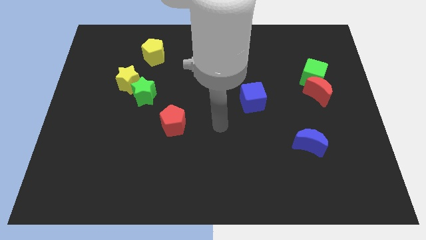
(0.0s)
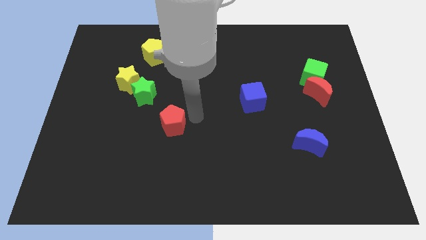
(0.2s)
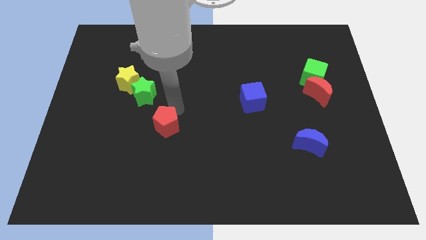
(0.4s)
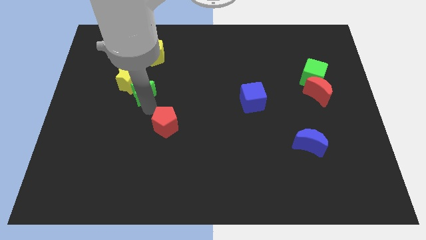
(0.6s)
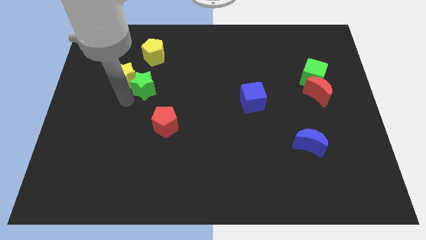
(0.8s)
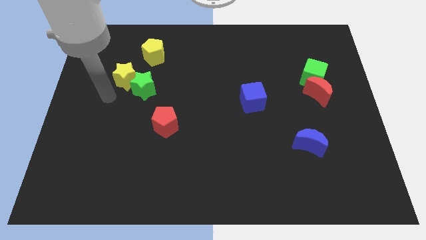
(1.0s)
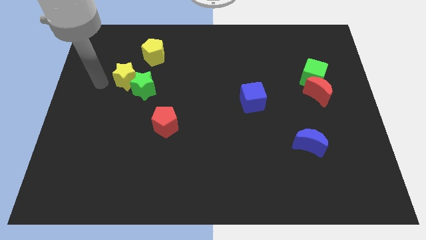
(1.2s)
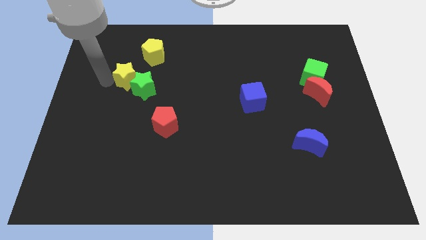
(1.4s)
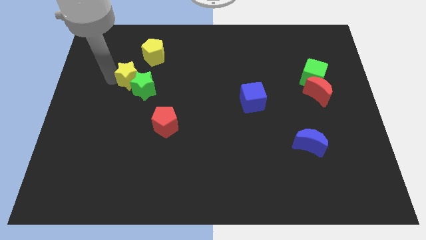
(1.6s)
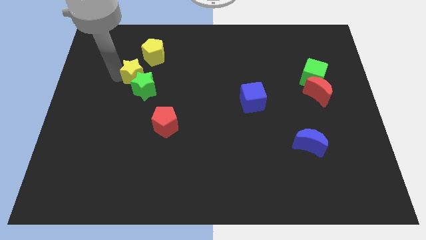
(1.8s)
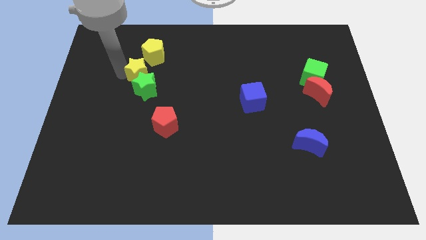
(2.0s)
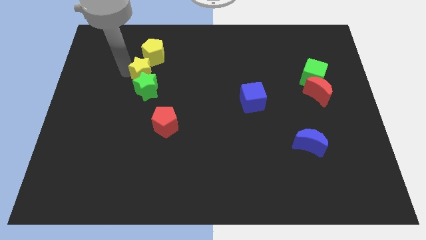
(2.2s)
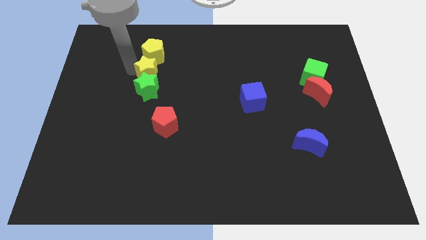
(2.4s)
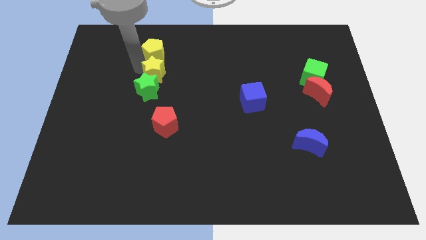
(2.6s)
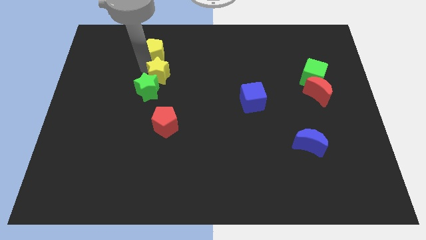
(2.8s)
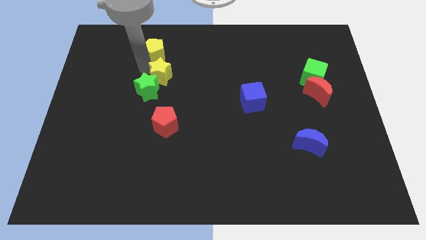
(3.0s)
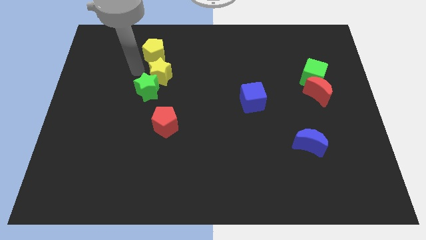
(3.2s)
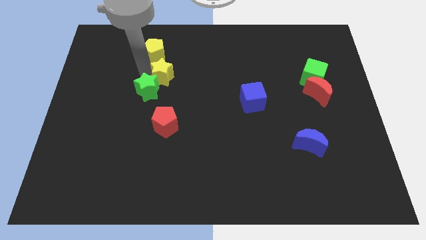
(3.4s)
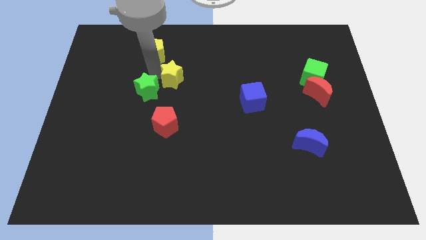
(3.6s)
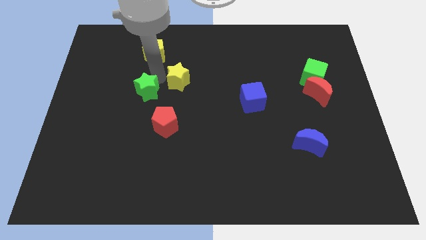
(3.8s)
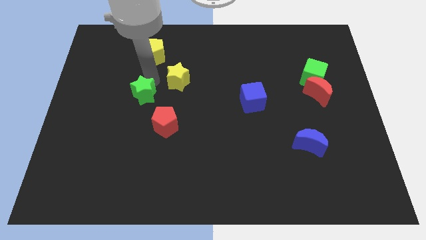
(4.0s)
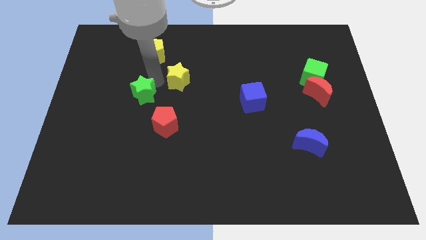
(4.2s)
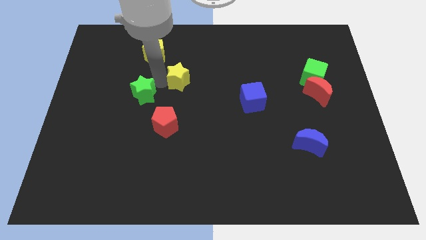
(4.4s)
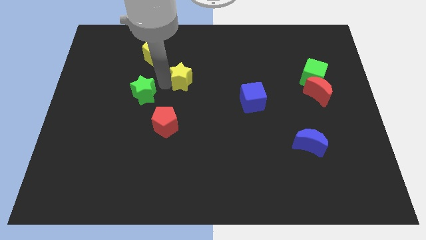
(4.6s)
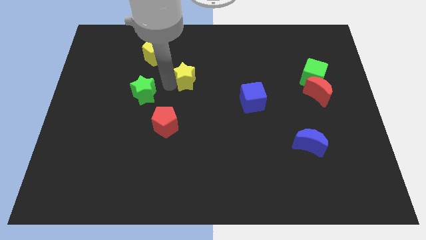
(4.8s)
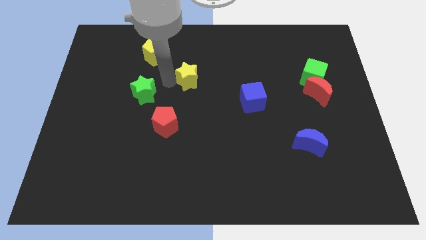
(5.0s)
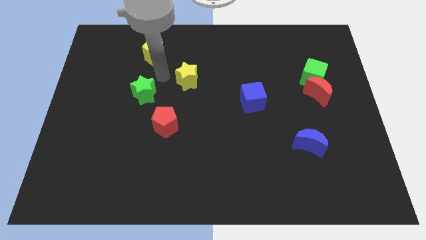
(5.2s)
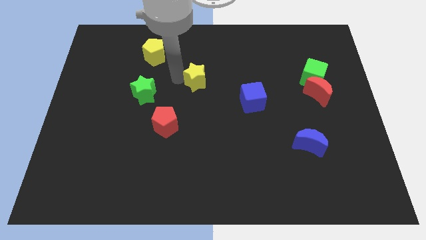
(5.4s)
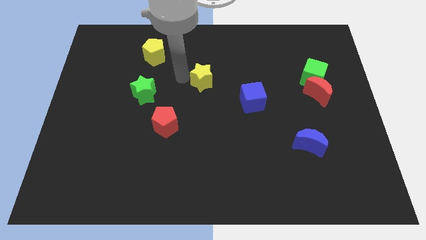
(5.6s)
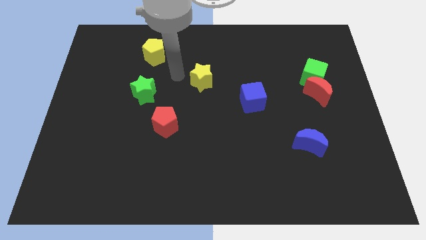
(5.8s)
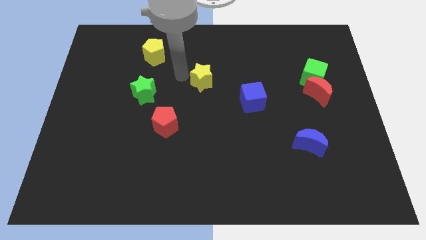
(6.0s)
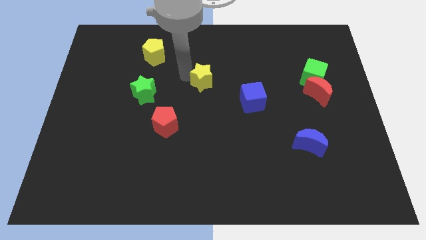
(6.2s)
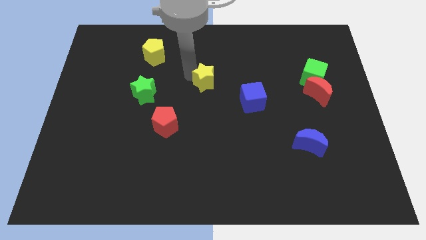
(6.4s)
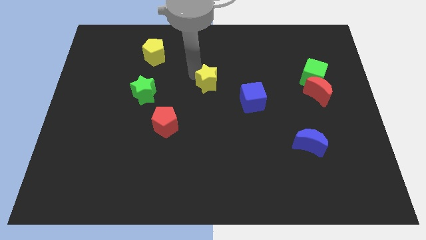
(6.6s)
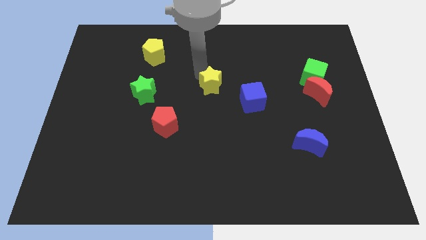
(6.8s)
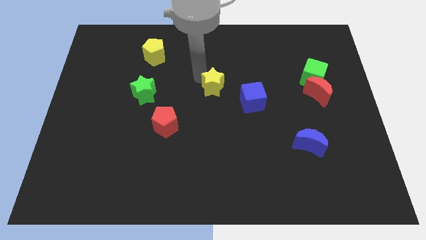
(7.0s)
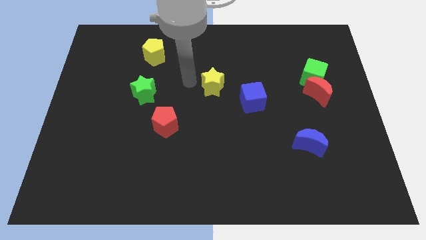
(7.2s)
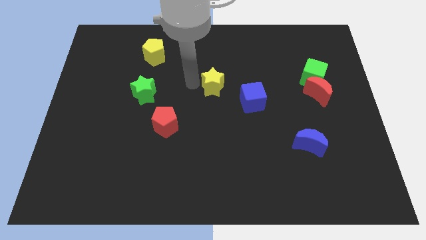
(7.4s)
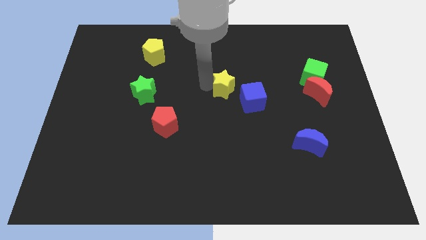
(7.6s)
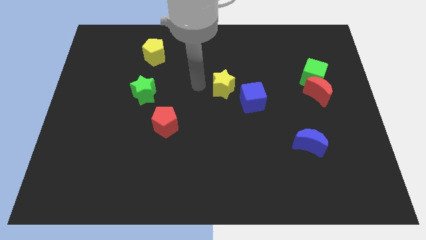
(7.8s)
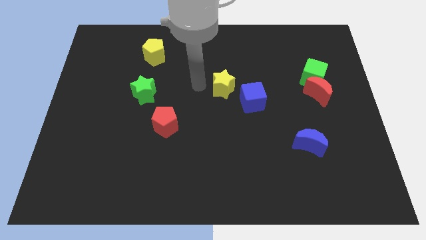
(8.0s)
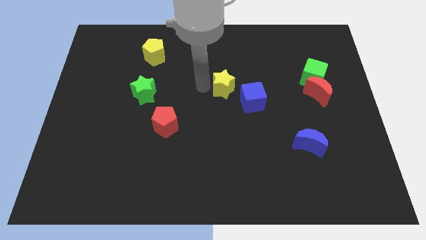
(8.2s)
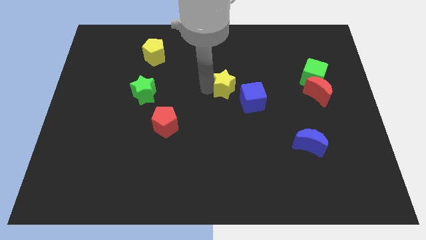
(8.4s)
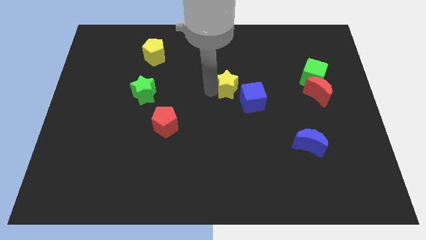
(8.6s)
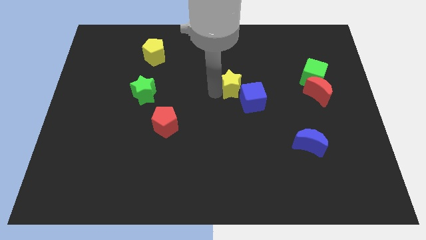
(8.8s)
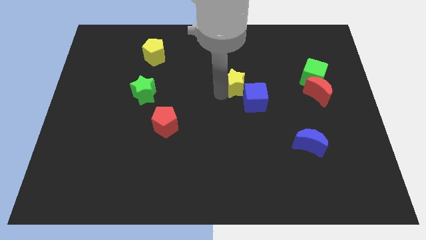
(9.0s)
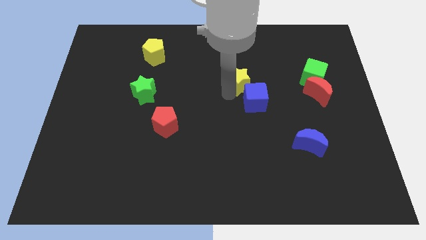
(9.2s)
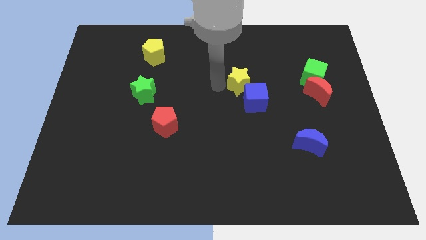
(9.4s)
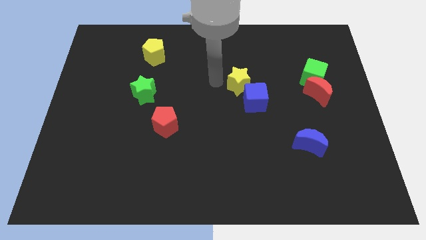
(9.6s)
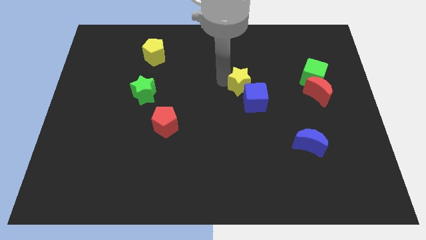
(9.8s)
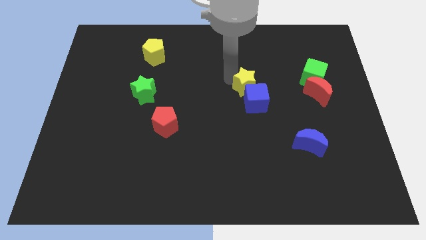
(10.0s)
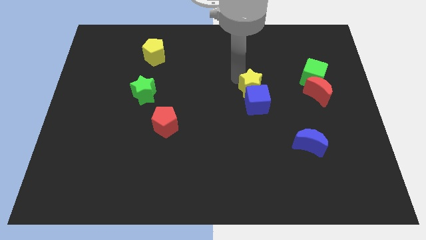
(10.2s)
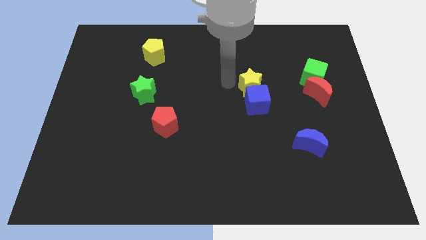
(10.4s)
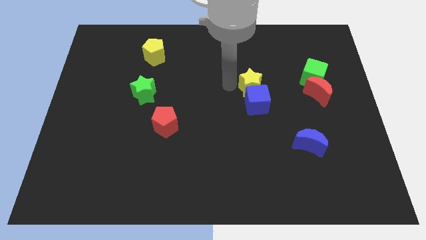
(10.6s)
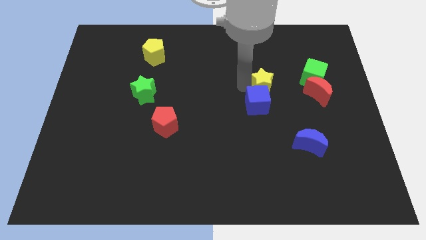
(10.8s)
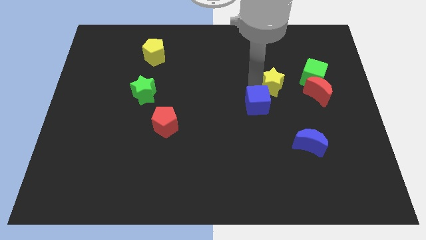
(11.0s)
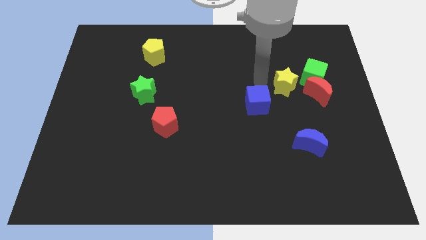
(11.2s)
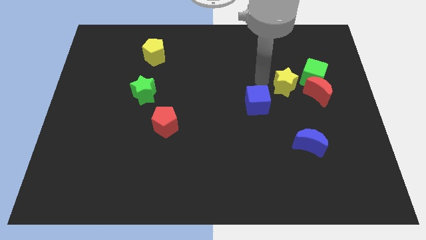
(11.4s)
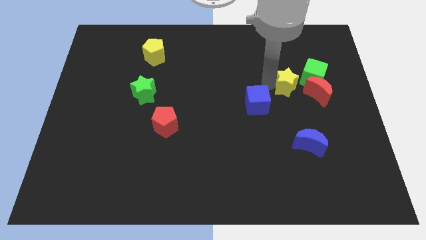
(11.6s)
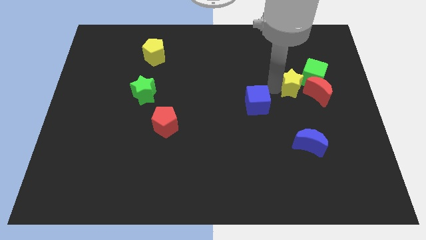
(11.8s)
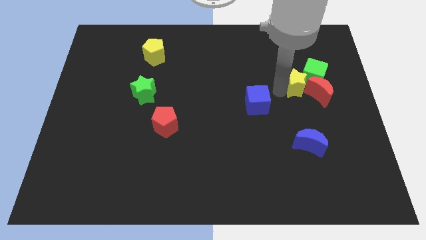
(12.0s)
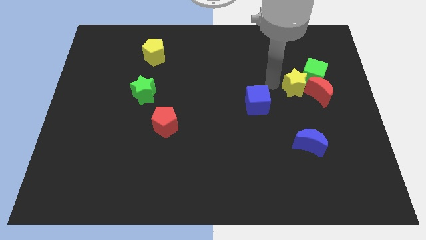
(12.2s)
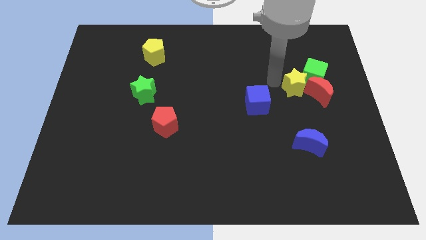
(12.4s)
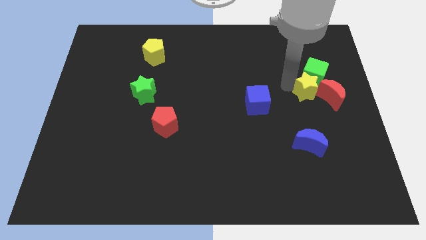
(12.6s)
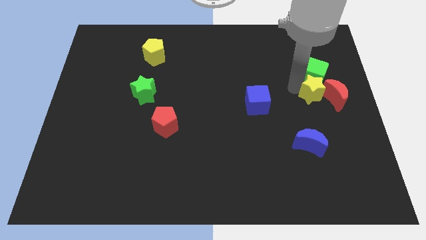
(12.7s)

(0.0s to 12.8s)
push the yellow star to the red moon
